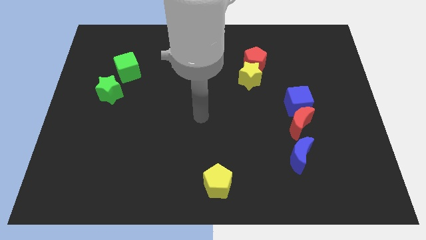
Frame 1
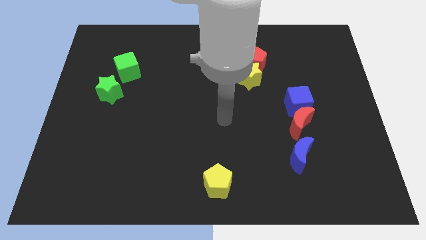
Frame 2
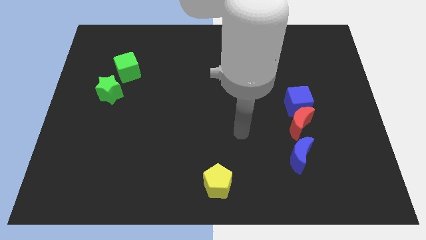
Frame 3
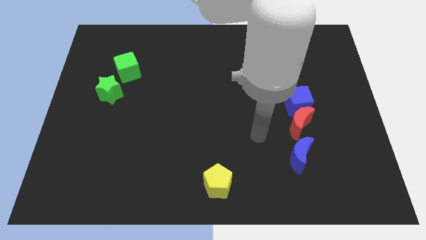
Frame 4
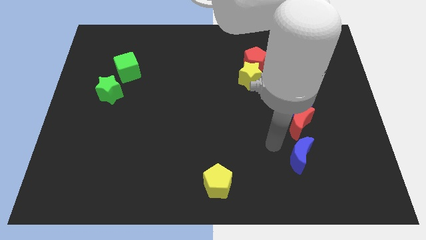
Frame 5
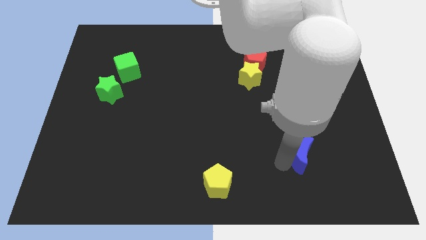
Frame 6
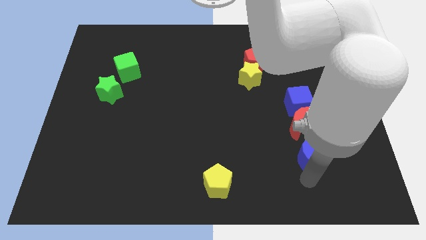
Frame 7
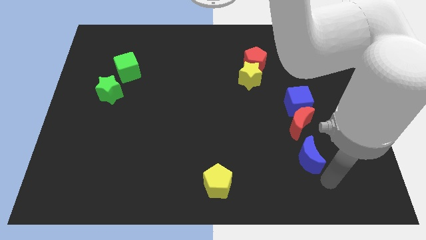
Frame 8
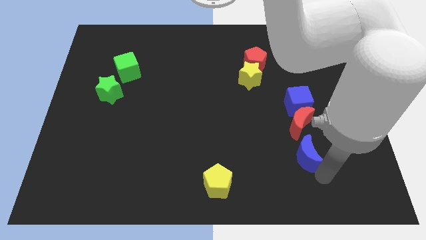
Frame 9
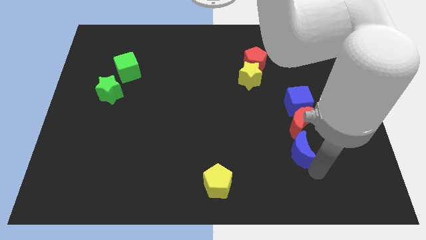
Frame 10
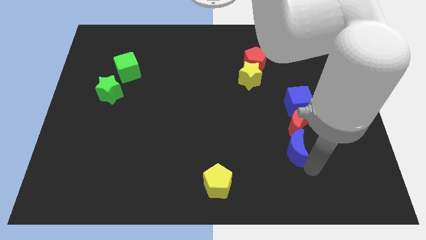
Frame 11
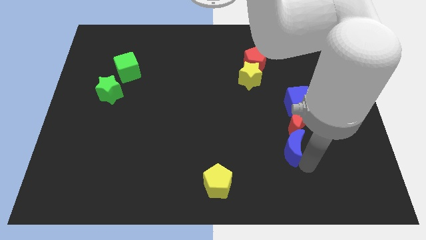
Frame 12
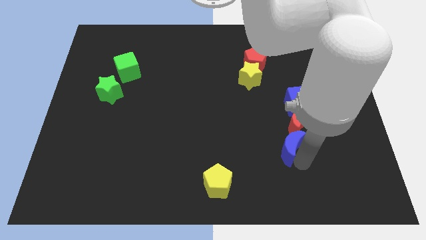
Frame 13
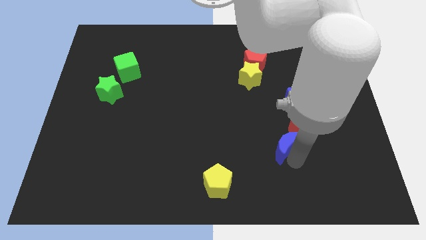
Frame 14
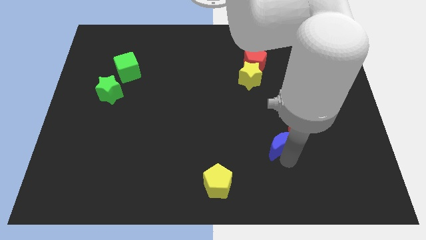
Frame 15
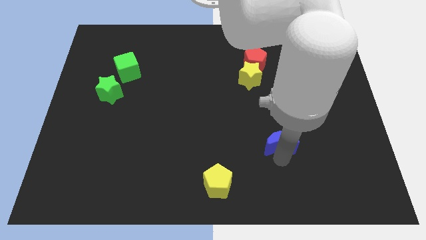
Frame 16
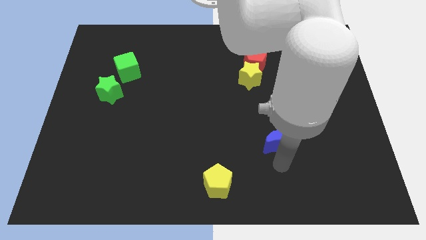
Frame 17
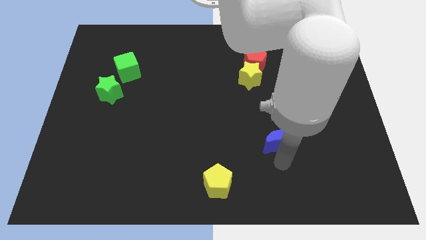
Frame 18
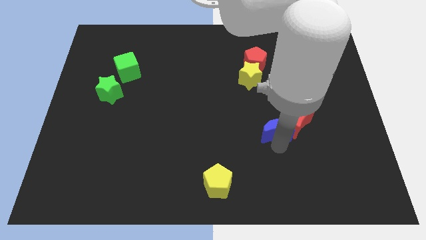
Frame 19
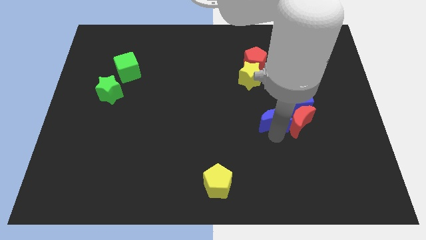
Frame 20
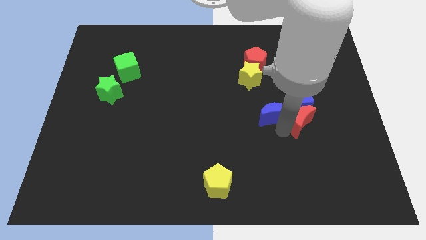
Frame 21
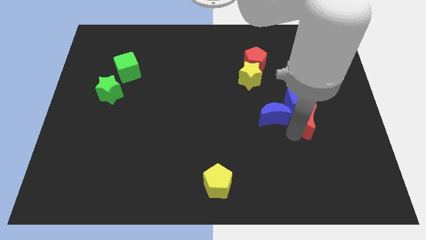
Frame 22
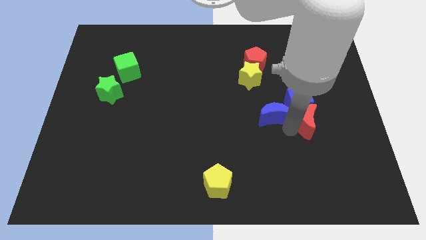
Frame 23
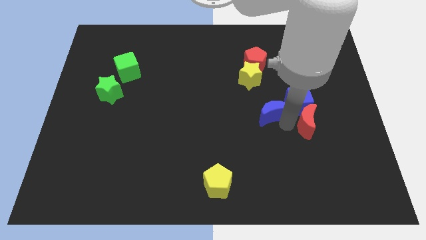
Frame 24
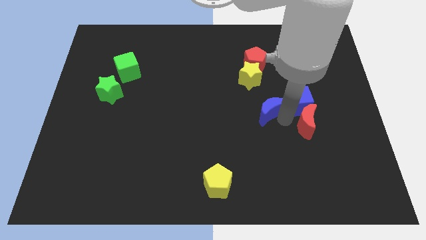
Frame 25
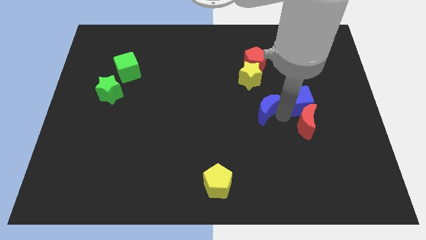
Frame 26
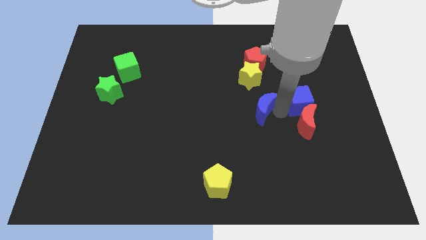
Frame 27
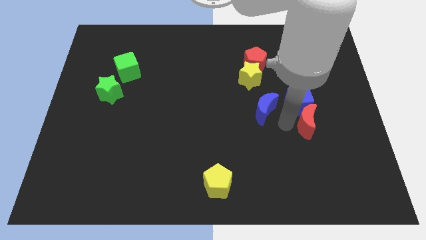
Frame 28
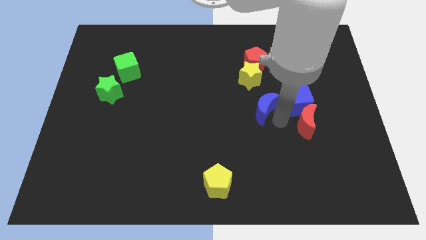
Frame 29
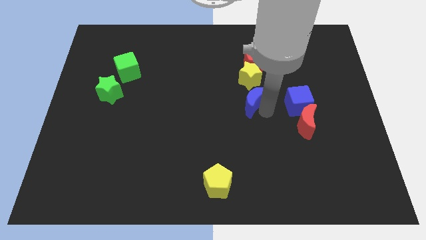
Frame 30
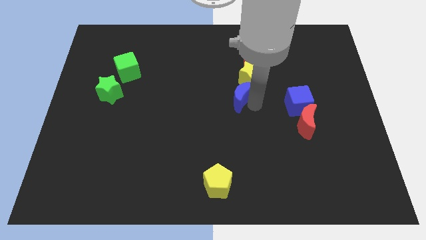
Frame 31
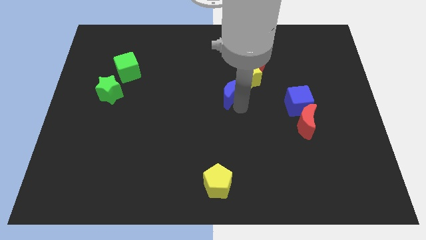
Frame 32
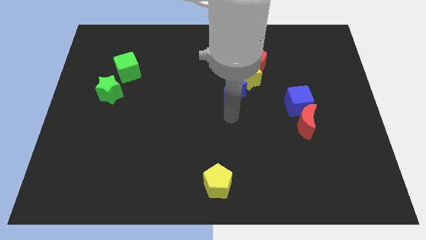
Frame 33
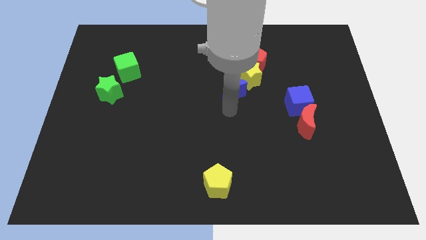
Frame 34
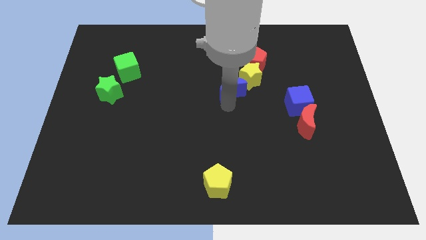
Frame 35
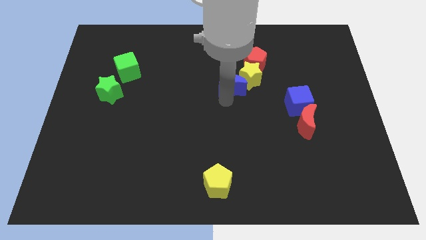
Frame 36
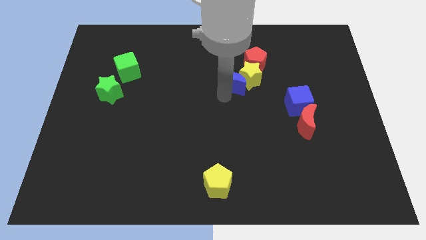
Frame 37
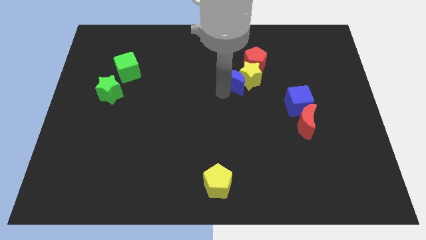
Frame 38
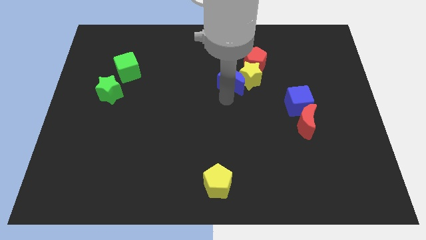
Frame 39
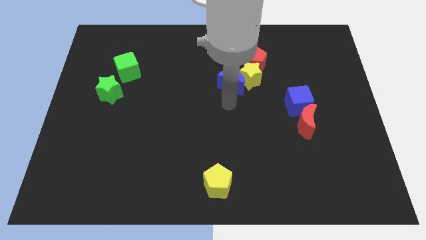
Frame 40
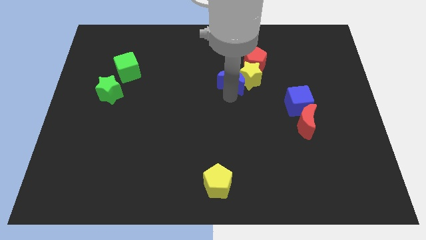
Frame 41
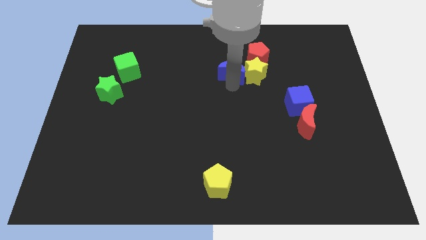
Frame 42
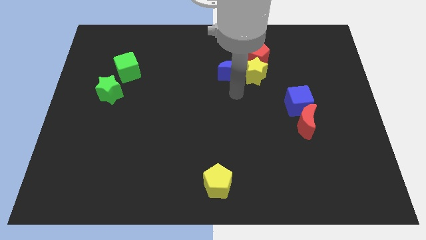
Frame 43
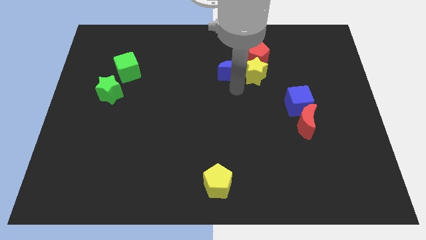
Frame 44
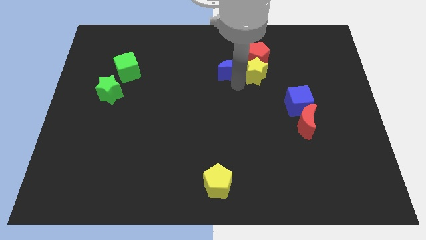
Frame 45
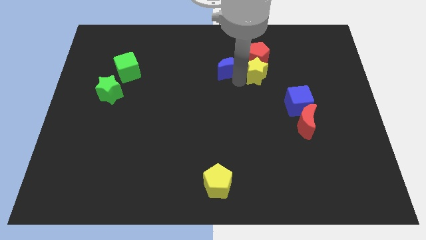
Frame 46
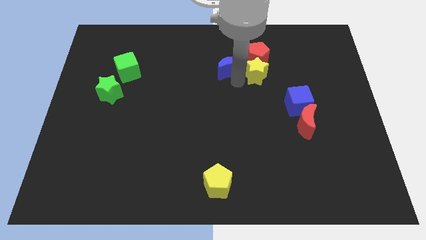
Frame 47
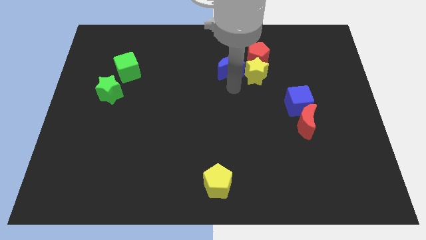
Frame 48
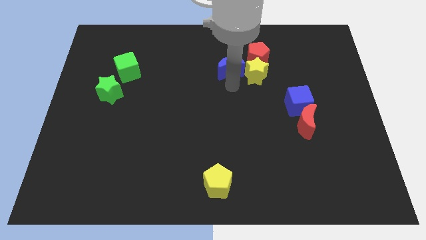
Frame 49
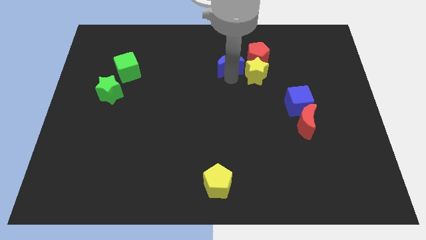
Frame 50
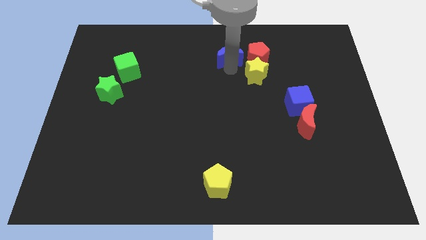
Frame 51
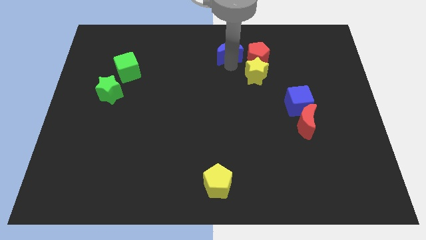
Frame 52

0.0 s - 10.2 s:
push the blue moon to the top

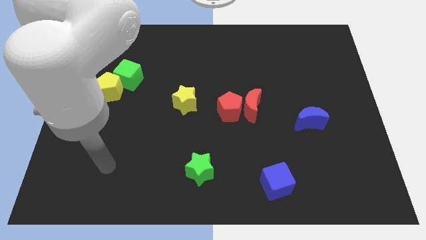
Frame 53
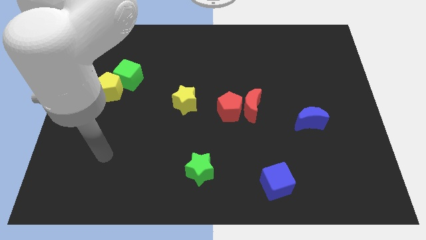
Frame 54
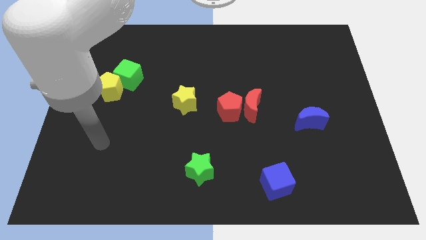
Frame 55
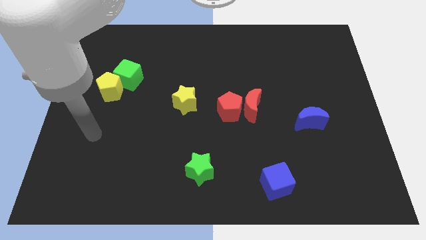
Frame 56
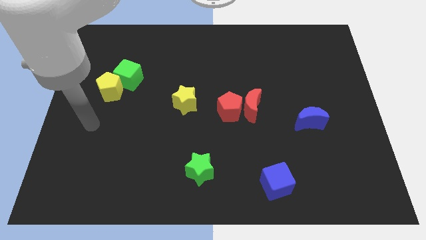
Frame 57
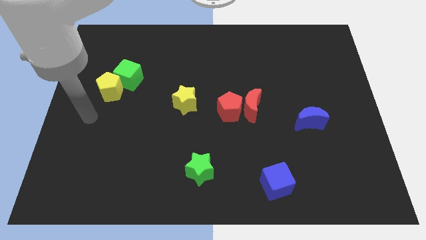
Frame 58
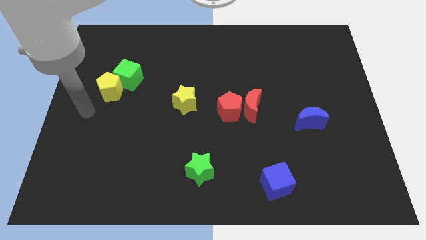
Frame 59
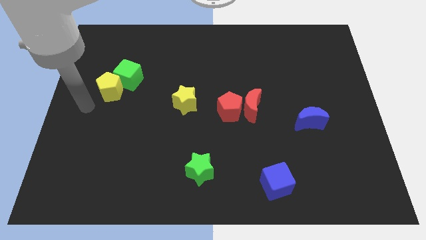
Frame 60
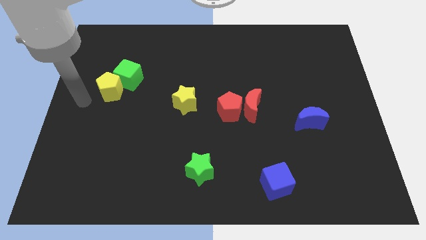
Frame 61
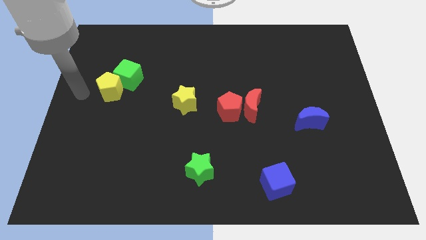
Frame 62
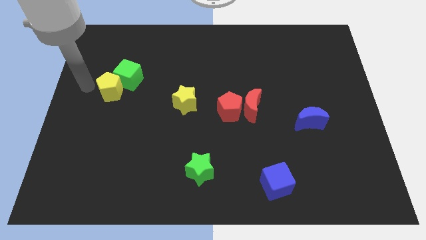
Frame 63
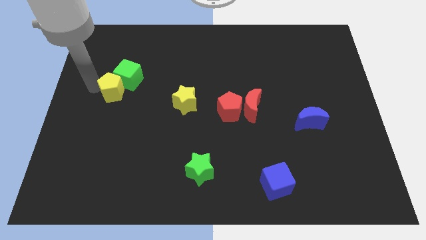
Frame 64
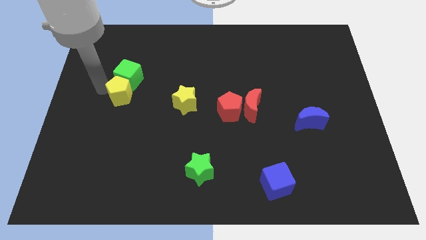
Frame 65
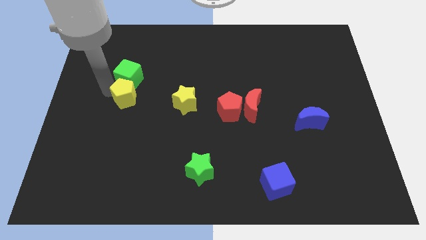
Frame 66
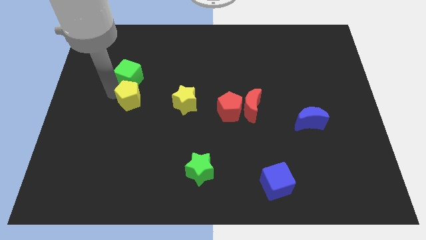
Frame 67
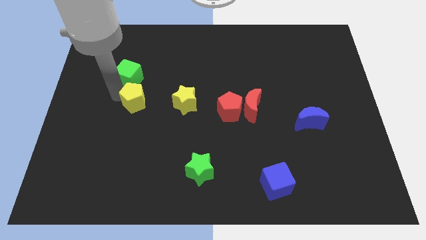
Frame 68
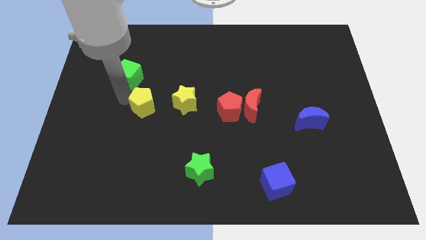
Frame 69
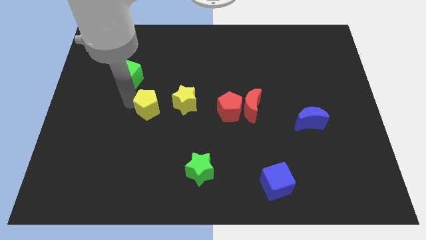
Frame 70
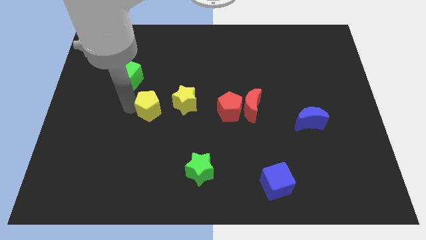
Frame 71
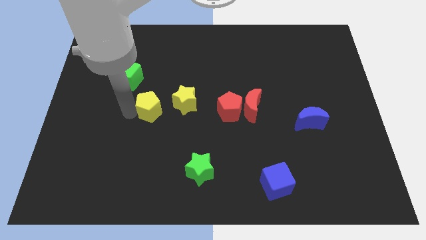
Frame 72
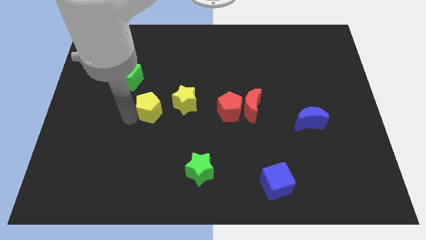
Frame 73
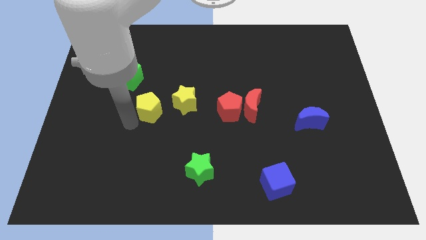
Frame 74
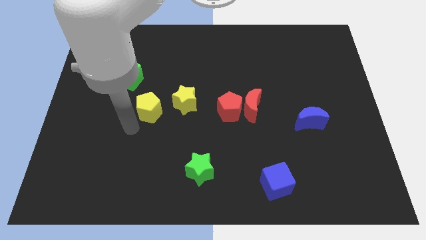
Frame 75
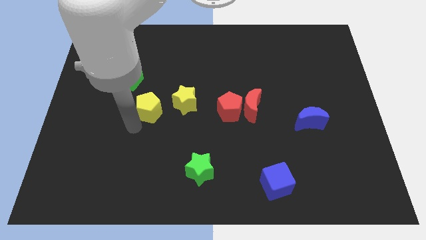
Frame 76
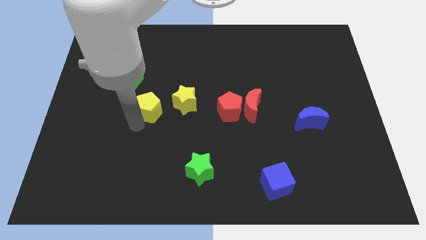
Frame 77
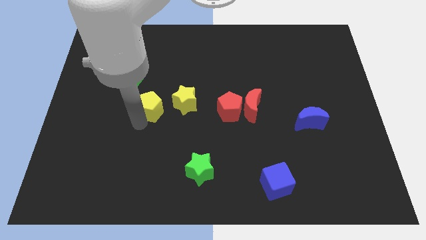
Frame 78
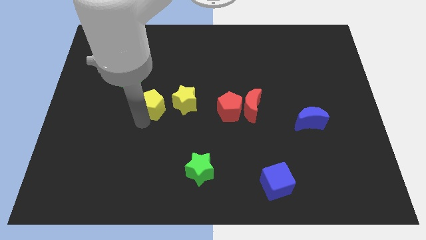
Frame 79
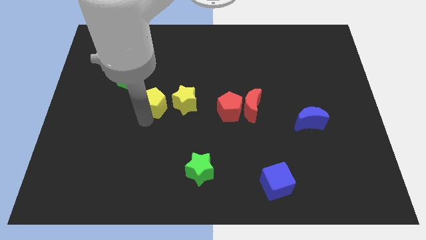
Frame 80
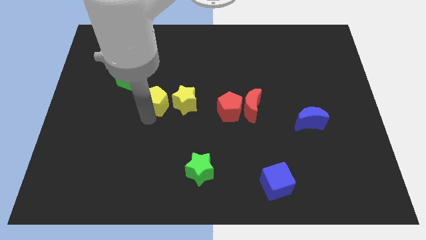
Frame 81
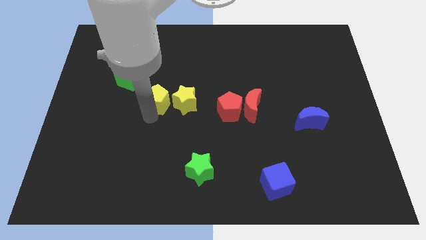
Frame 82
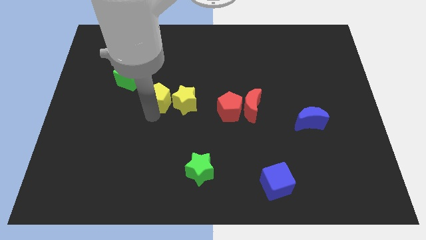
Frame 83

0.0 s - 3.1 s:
slide the yellow pentagon to the center of the board
